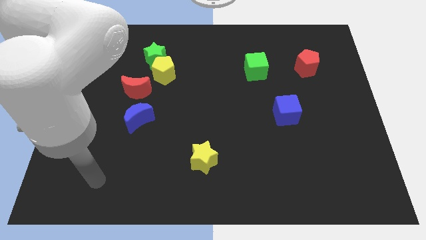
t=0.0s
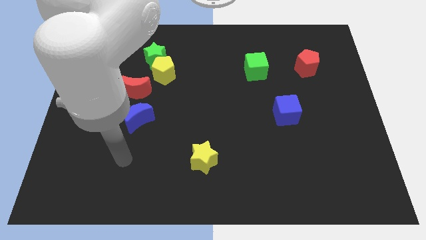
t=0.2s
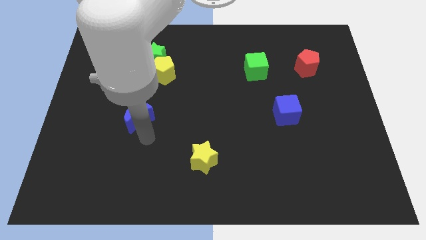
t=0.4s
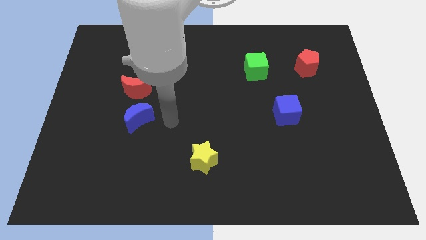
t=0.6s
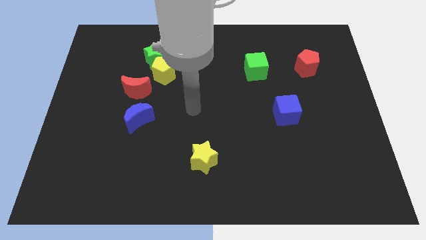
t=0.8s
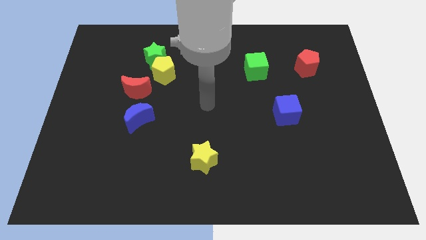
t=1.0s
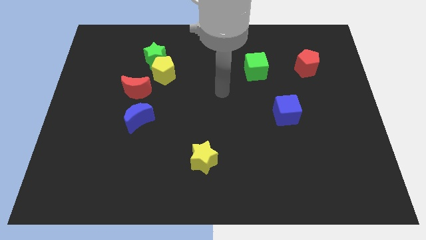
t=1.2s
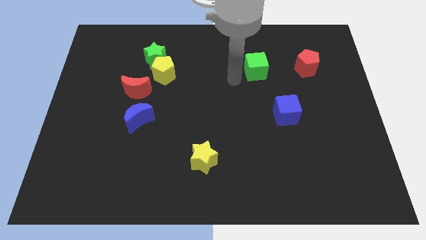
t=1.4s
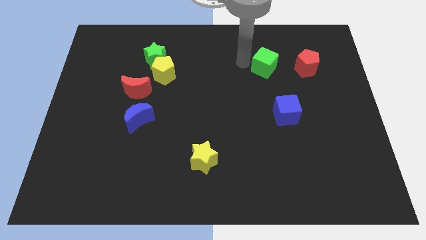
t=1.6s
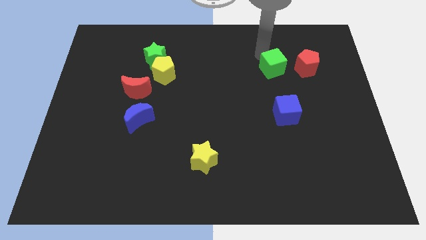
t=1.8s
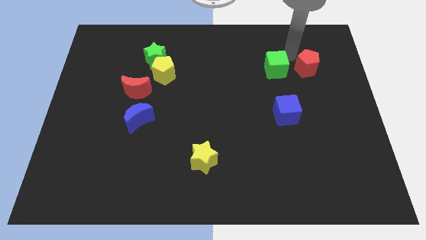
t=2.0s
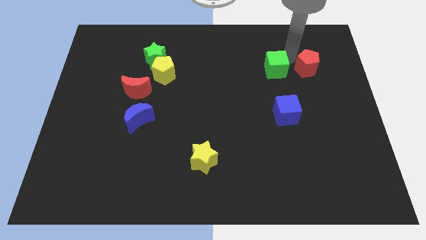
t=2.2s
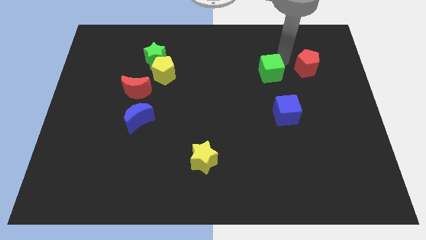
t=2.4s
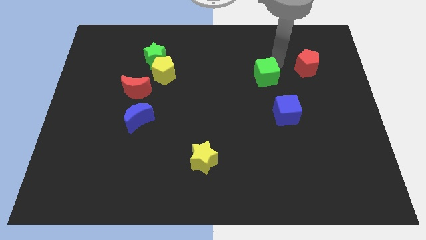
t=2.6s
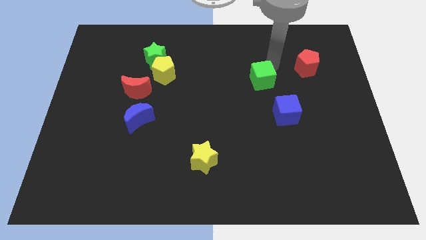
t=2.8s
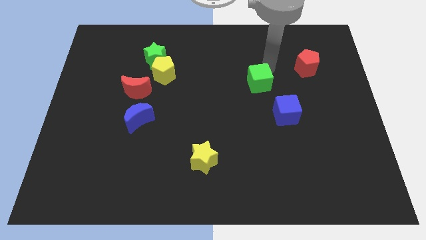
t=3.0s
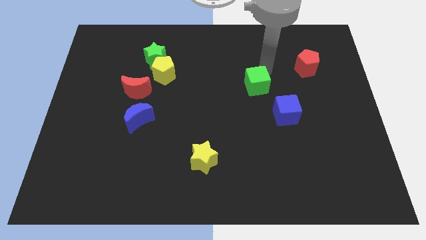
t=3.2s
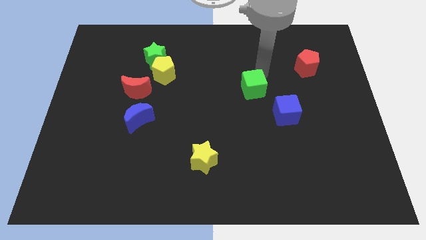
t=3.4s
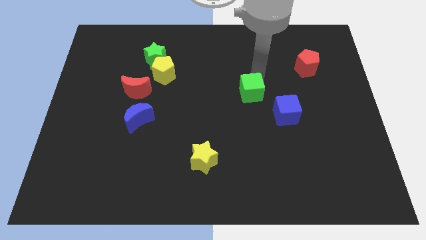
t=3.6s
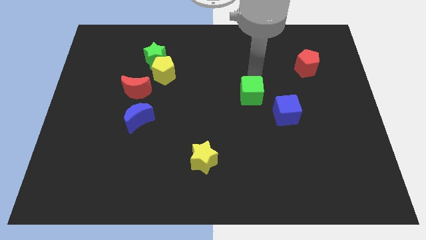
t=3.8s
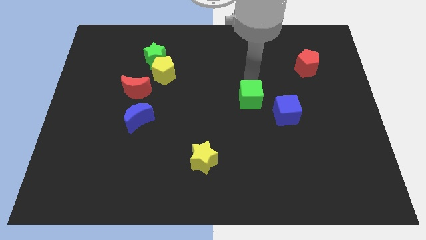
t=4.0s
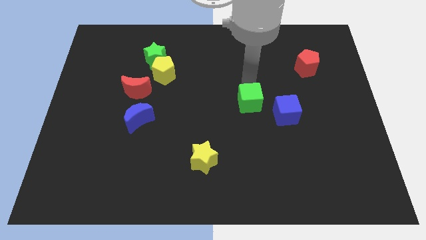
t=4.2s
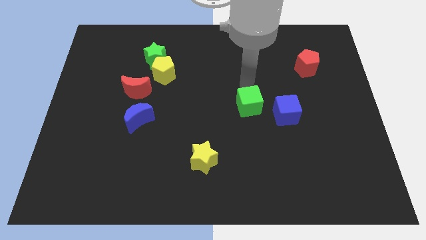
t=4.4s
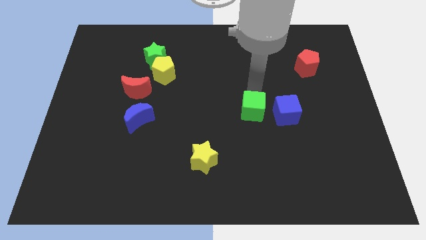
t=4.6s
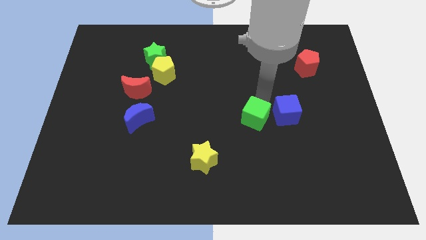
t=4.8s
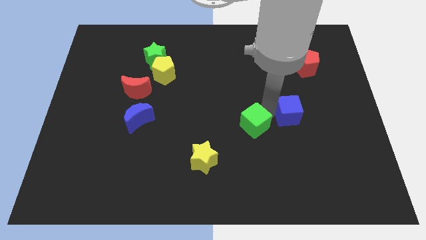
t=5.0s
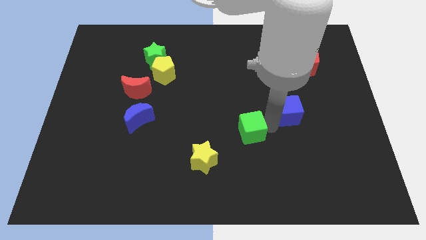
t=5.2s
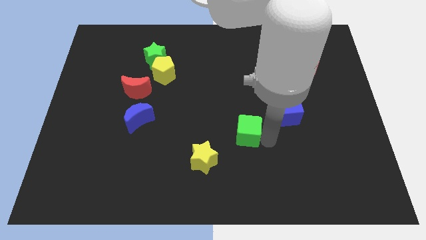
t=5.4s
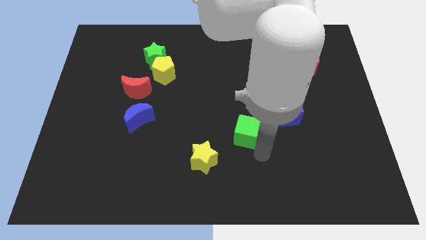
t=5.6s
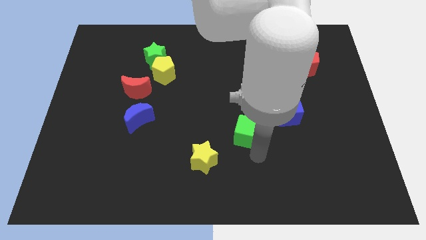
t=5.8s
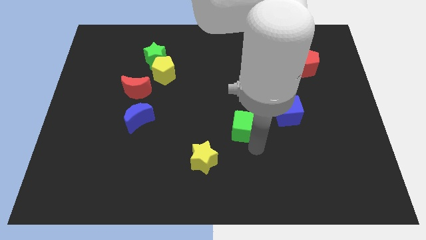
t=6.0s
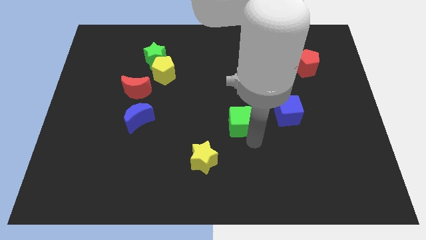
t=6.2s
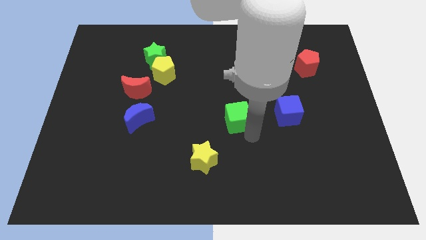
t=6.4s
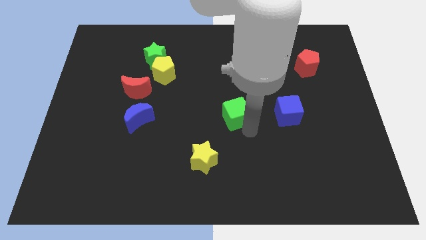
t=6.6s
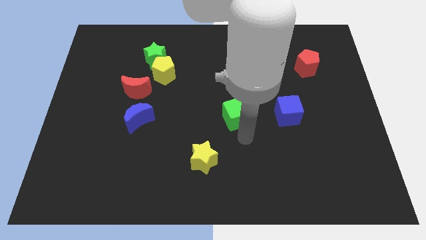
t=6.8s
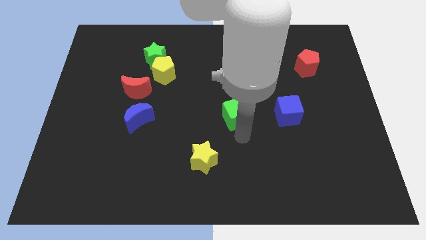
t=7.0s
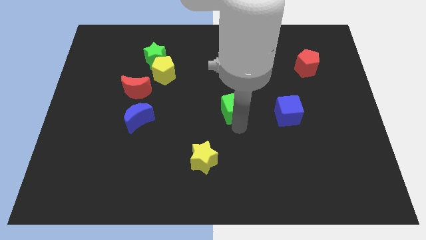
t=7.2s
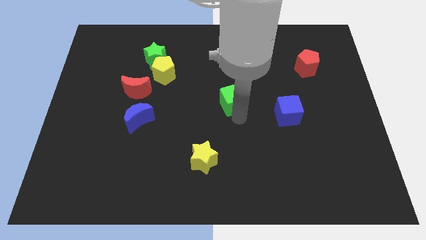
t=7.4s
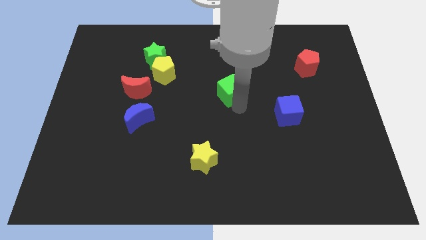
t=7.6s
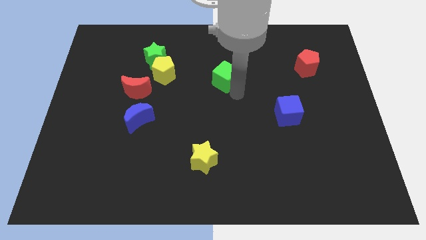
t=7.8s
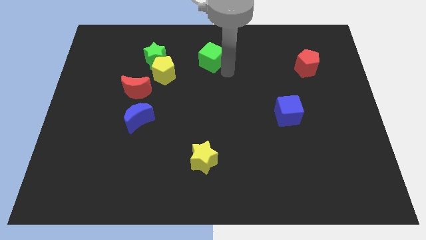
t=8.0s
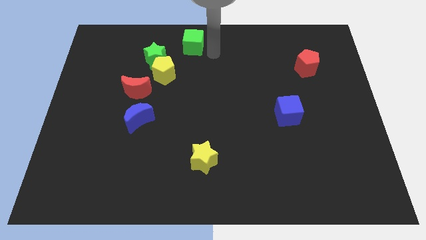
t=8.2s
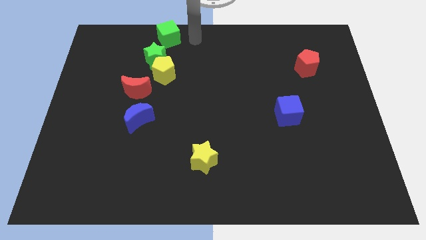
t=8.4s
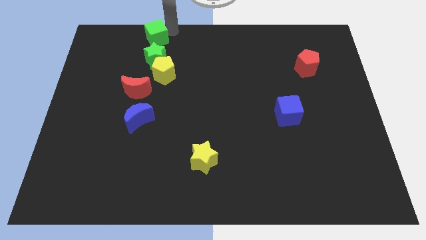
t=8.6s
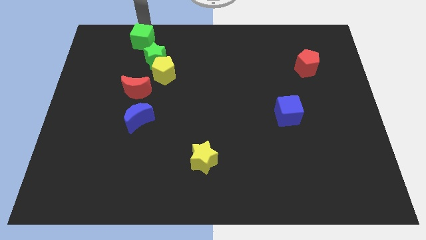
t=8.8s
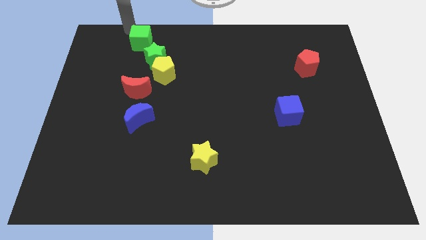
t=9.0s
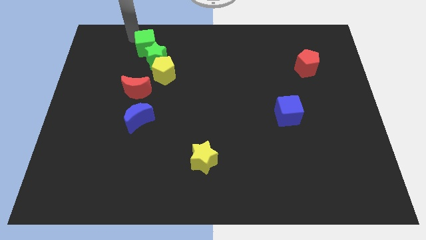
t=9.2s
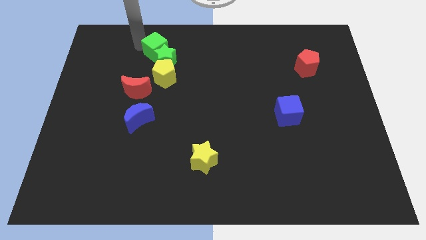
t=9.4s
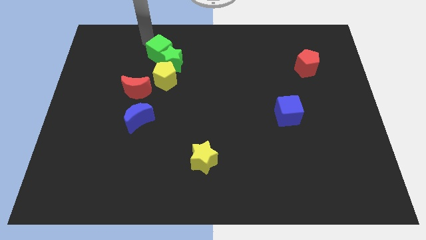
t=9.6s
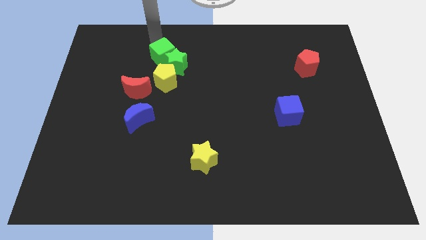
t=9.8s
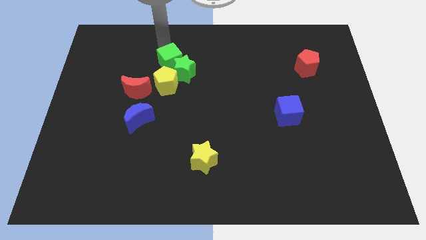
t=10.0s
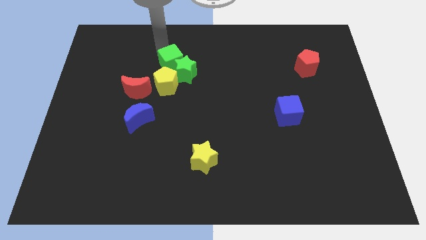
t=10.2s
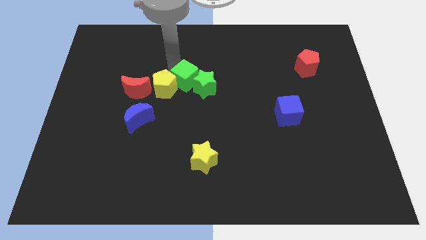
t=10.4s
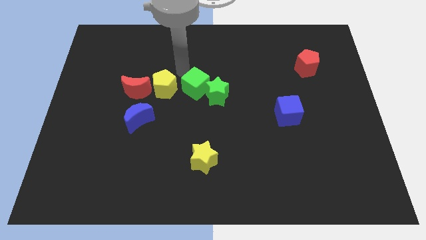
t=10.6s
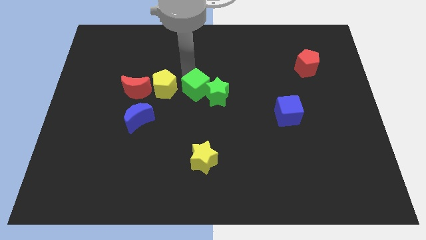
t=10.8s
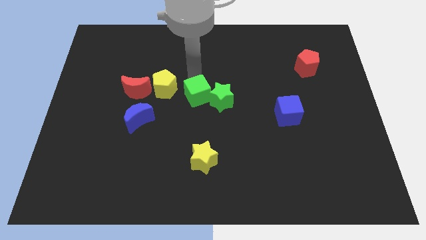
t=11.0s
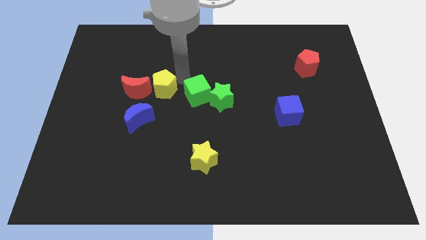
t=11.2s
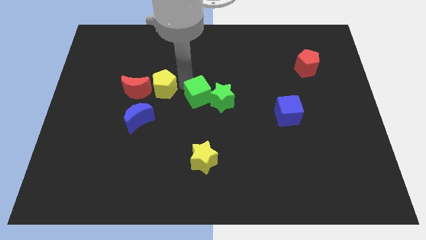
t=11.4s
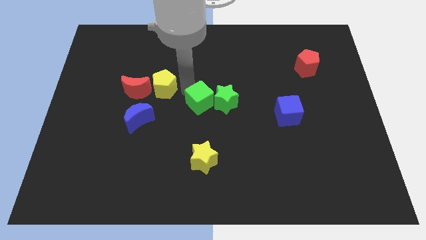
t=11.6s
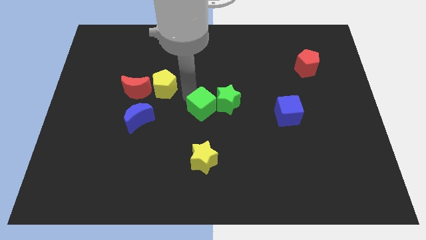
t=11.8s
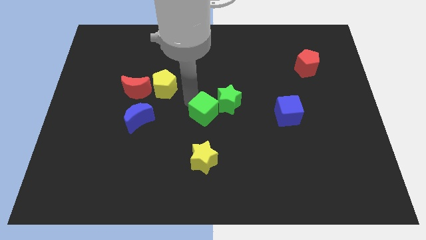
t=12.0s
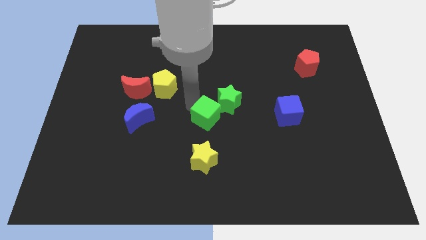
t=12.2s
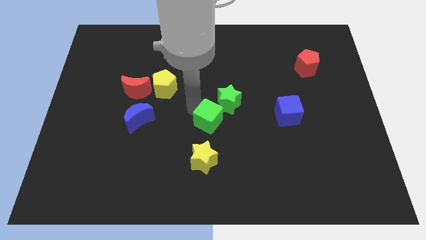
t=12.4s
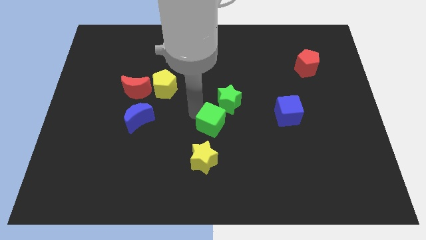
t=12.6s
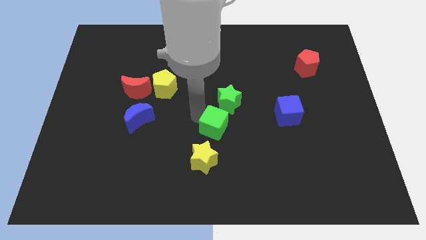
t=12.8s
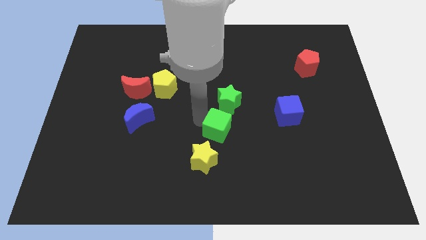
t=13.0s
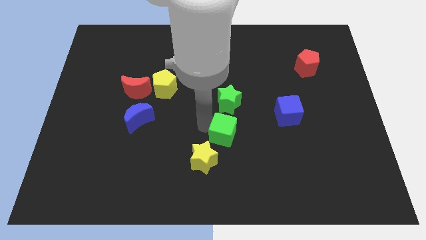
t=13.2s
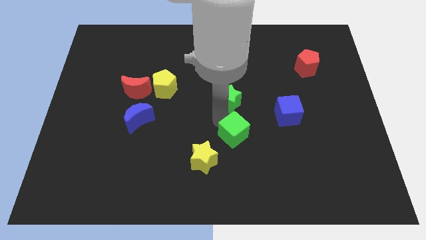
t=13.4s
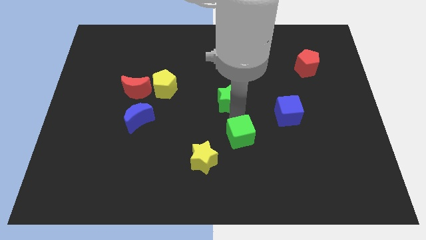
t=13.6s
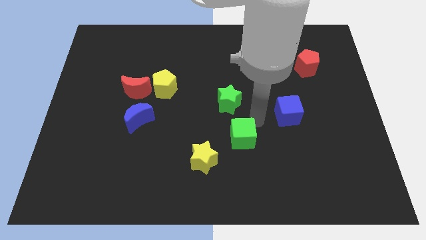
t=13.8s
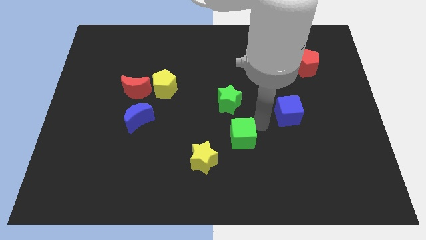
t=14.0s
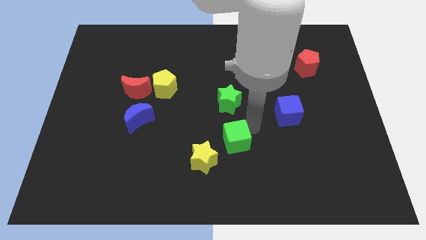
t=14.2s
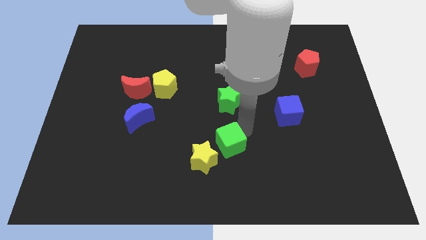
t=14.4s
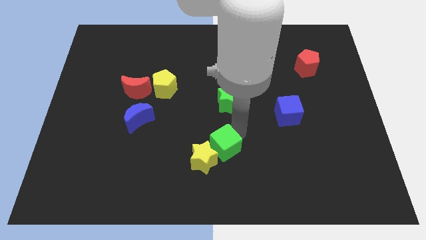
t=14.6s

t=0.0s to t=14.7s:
put the green cube towards the yellow star
